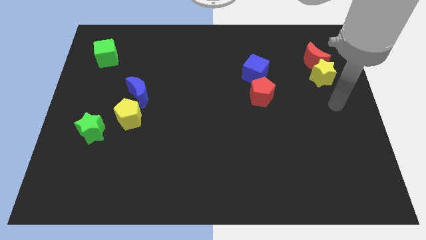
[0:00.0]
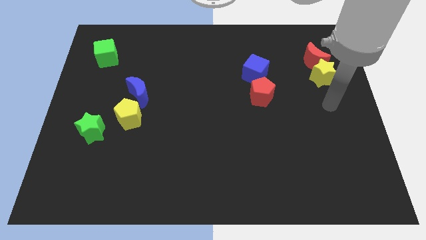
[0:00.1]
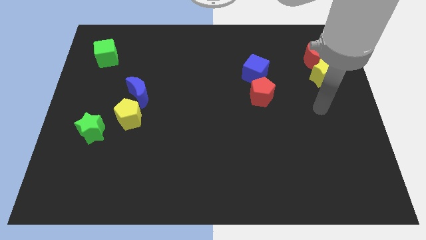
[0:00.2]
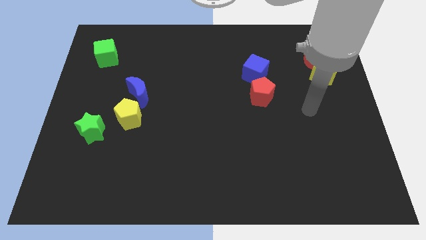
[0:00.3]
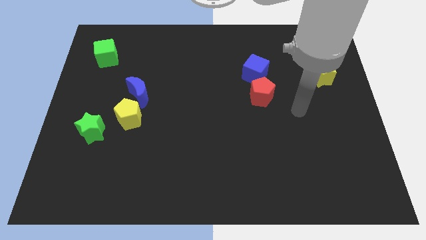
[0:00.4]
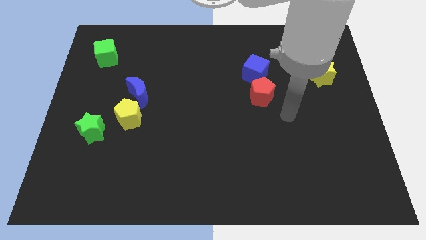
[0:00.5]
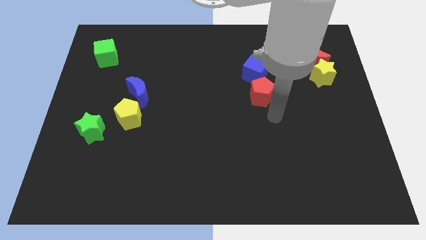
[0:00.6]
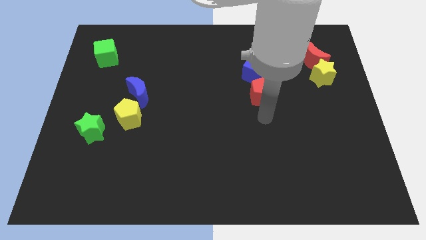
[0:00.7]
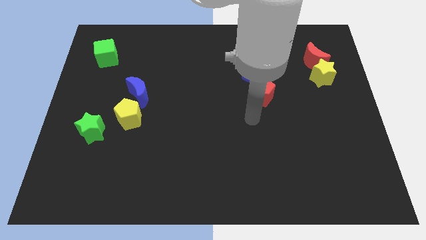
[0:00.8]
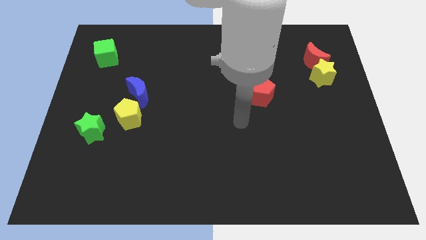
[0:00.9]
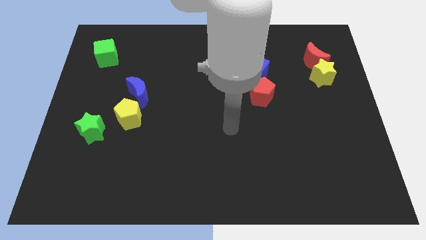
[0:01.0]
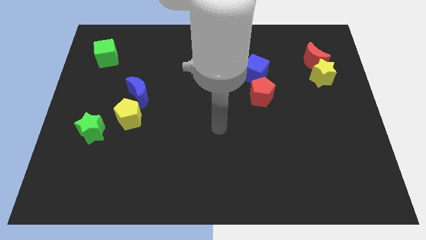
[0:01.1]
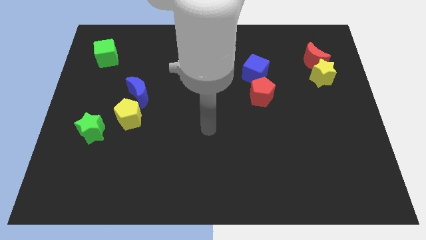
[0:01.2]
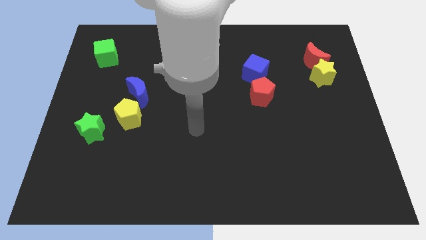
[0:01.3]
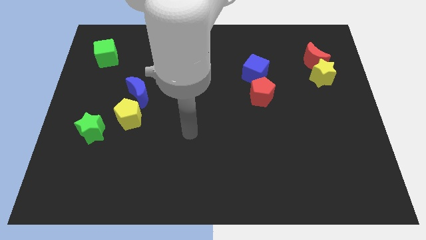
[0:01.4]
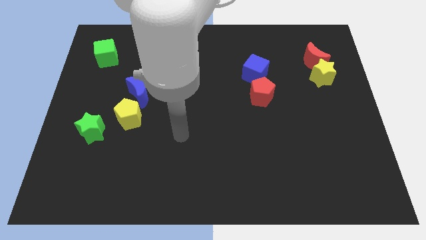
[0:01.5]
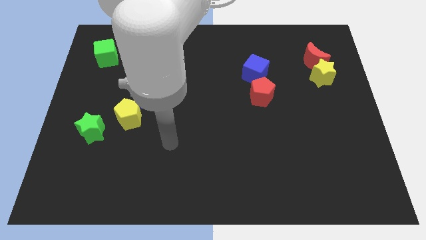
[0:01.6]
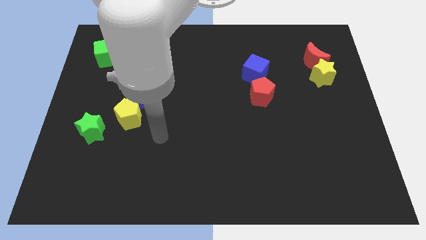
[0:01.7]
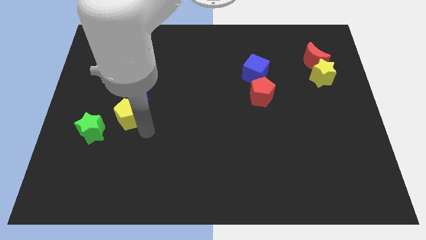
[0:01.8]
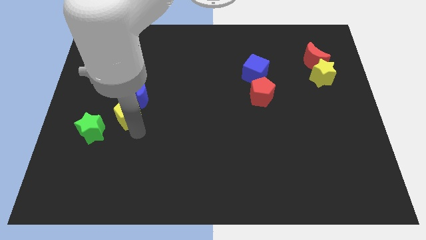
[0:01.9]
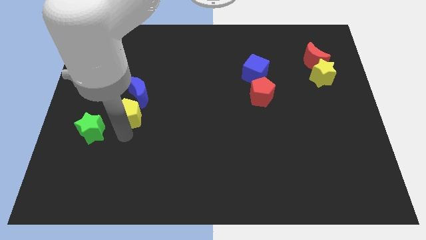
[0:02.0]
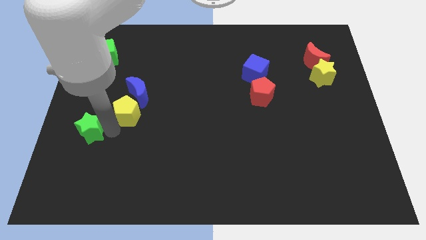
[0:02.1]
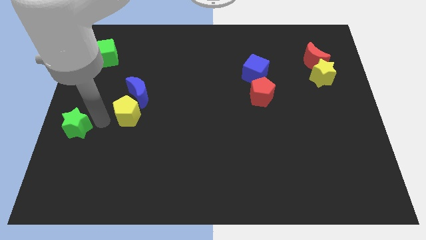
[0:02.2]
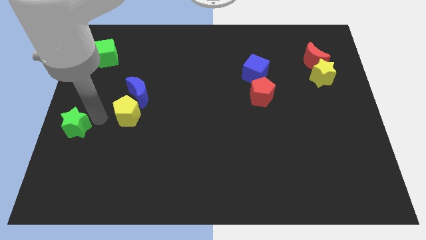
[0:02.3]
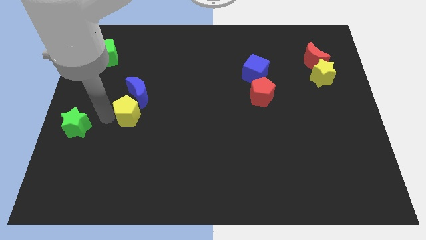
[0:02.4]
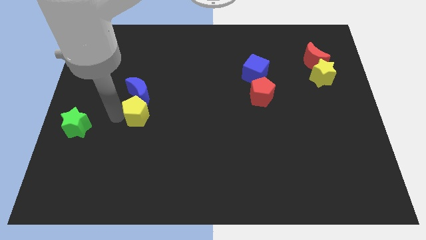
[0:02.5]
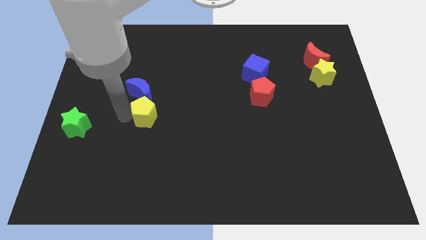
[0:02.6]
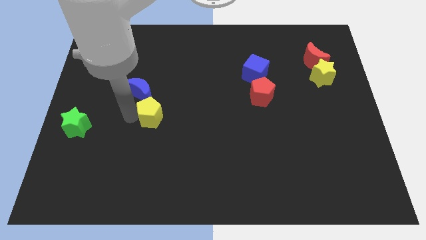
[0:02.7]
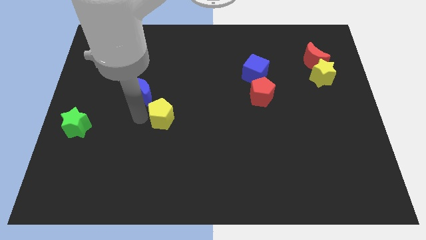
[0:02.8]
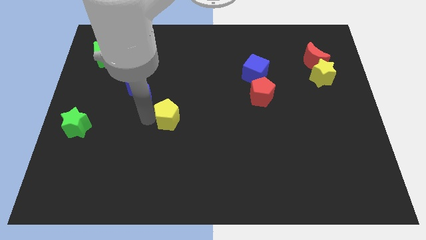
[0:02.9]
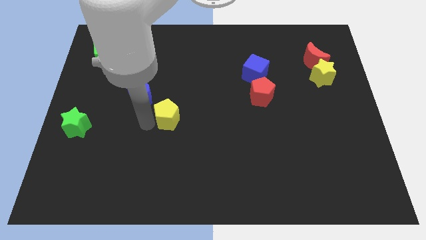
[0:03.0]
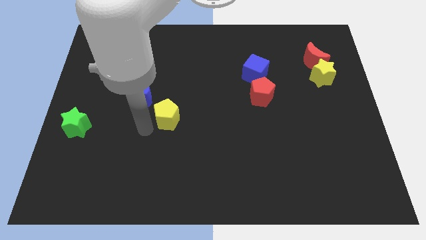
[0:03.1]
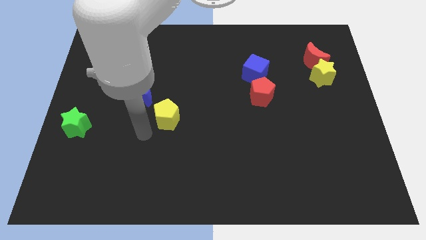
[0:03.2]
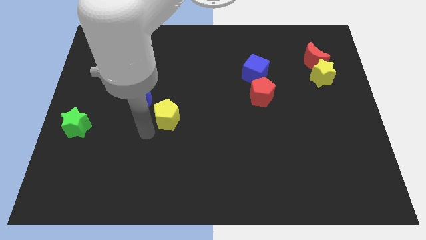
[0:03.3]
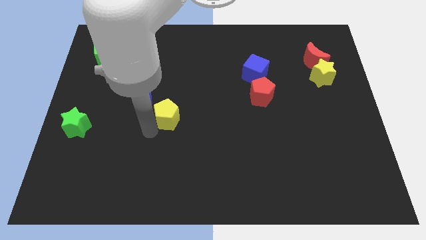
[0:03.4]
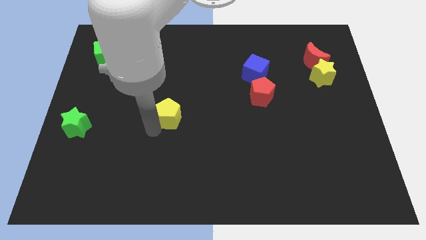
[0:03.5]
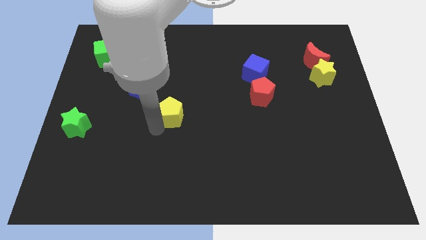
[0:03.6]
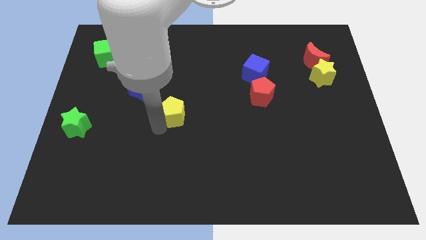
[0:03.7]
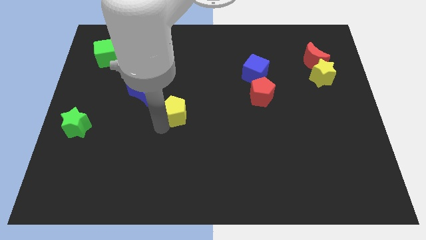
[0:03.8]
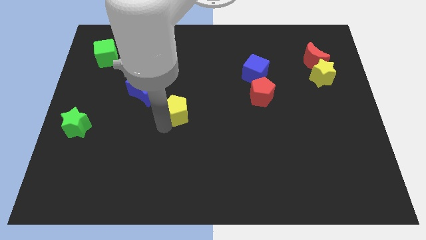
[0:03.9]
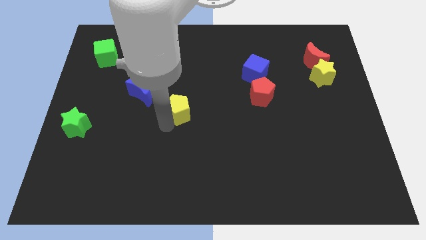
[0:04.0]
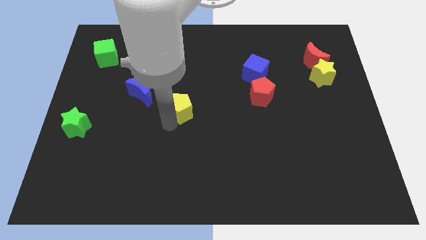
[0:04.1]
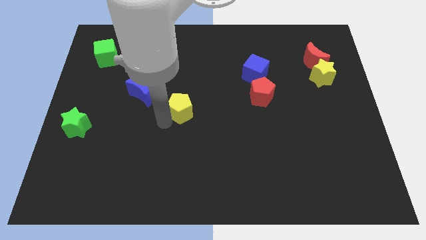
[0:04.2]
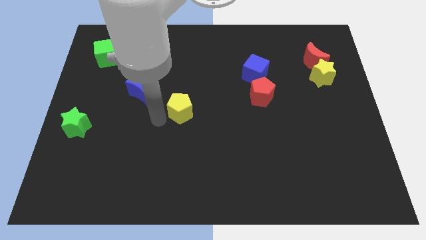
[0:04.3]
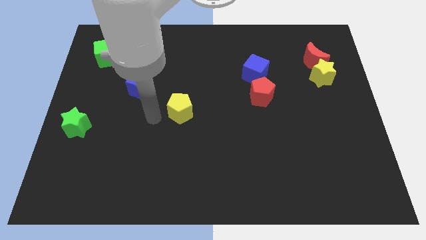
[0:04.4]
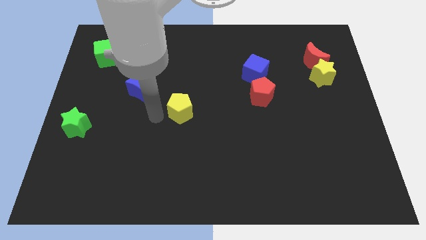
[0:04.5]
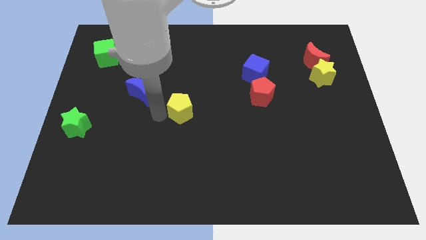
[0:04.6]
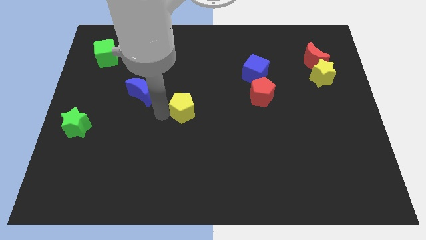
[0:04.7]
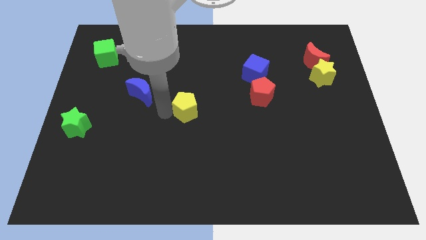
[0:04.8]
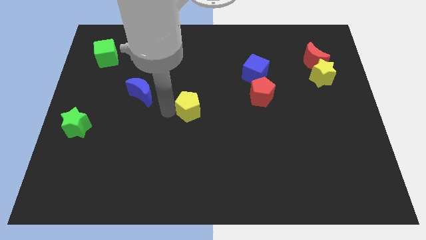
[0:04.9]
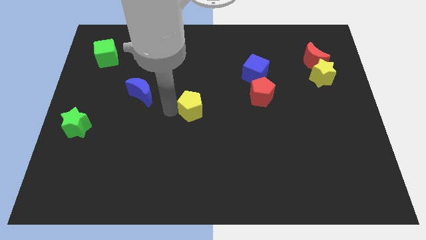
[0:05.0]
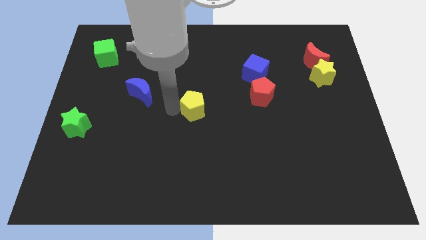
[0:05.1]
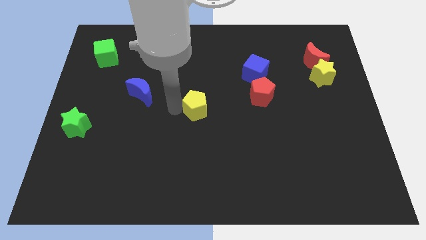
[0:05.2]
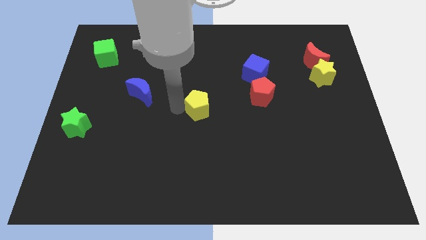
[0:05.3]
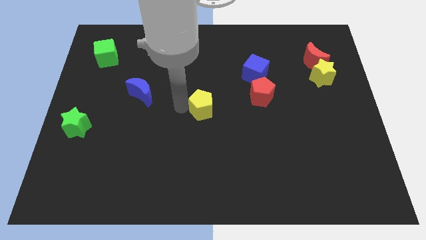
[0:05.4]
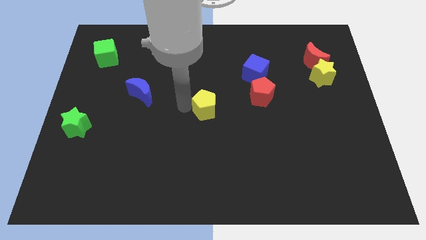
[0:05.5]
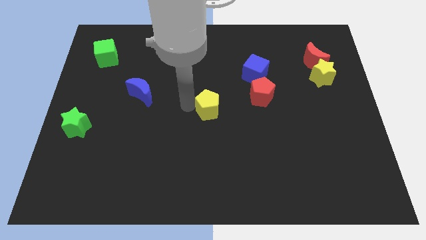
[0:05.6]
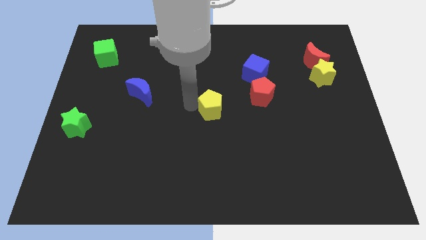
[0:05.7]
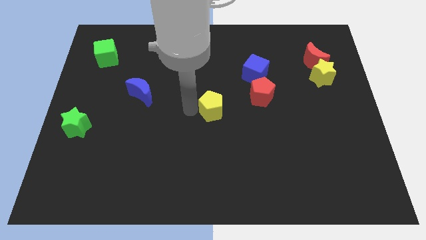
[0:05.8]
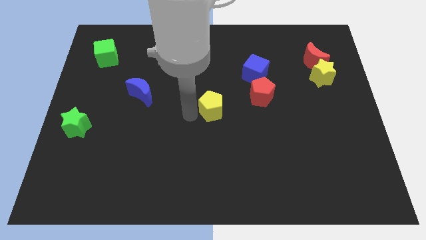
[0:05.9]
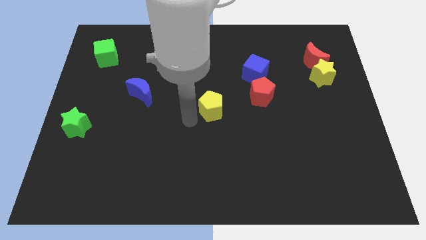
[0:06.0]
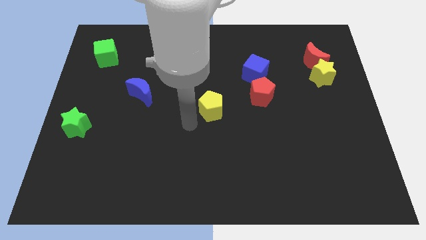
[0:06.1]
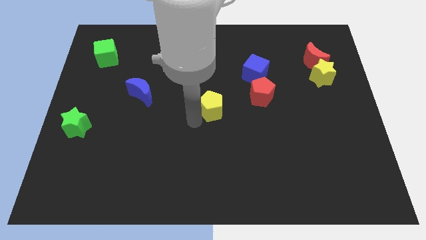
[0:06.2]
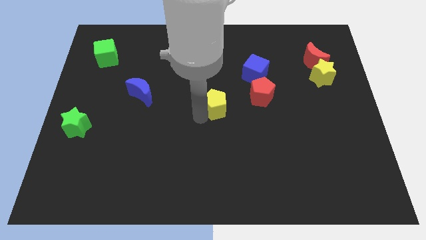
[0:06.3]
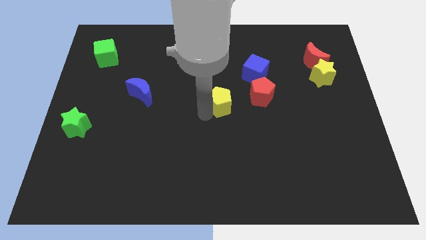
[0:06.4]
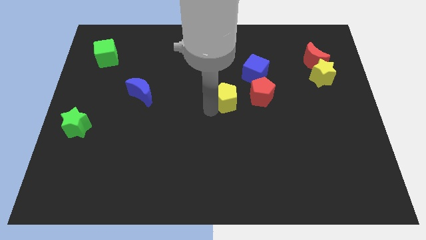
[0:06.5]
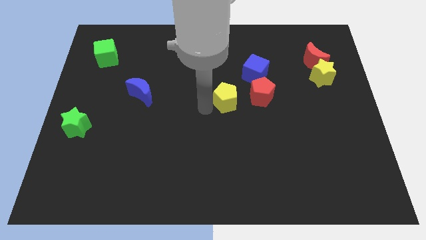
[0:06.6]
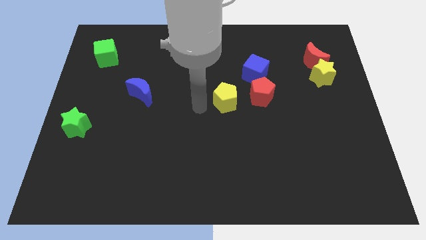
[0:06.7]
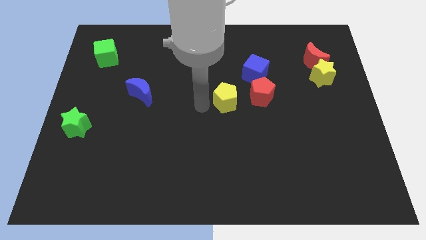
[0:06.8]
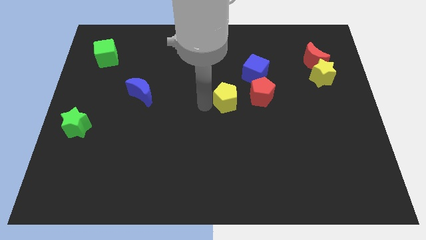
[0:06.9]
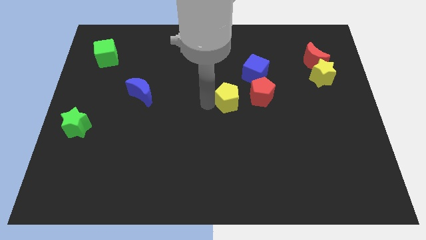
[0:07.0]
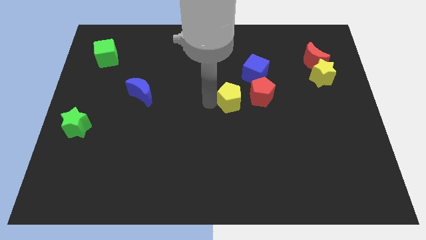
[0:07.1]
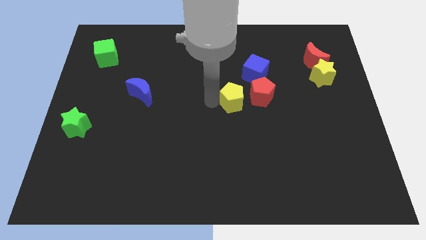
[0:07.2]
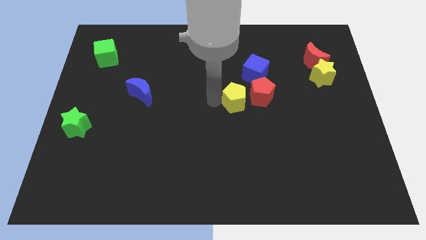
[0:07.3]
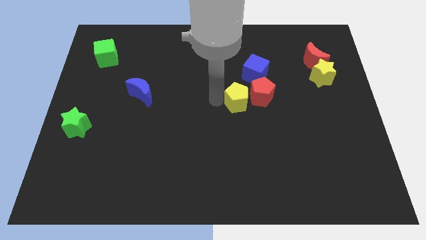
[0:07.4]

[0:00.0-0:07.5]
slide the yellow pentagon close to the red pentagon

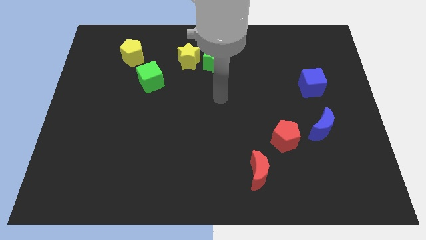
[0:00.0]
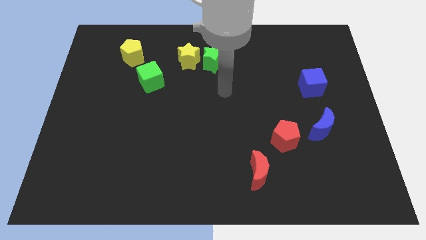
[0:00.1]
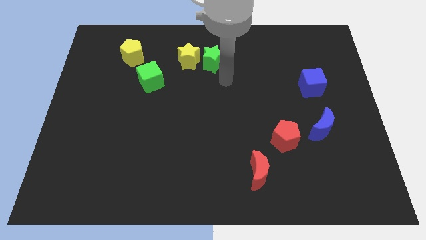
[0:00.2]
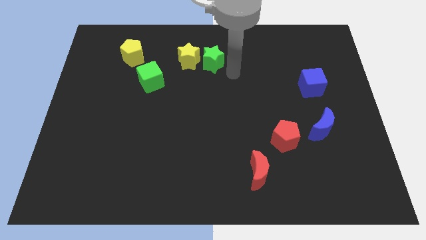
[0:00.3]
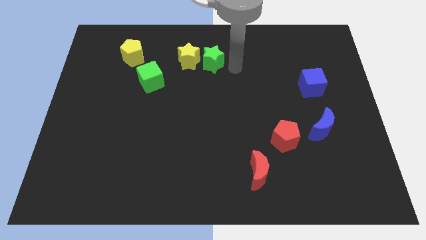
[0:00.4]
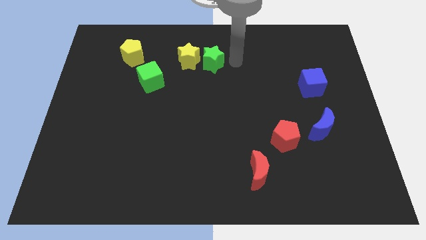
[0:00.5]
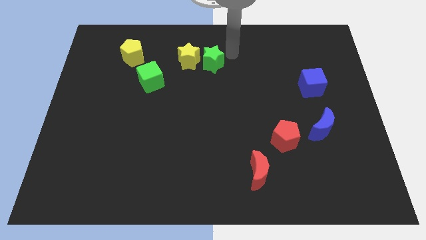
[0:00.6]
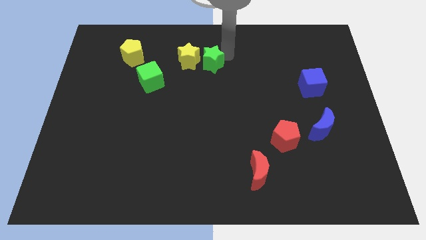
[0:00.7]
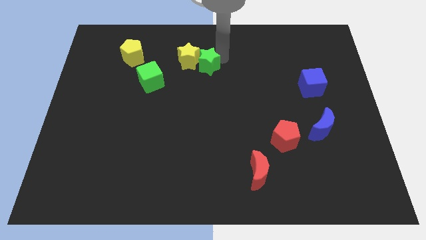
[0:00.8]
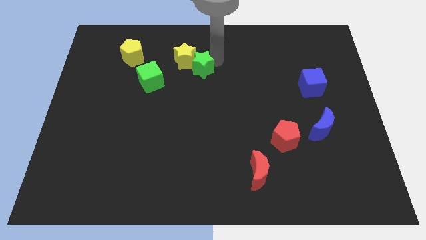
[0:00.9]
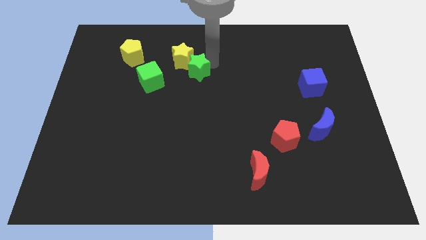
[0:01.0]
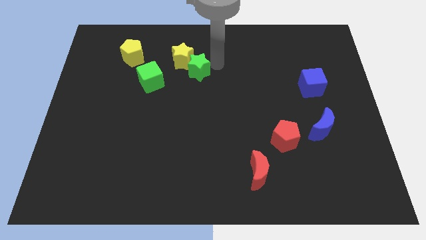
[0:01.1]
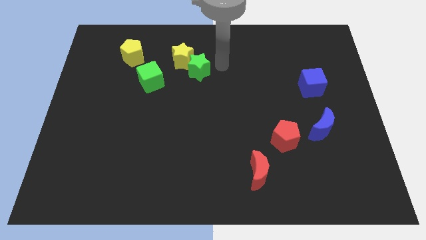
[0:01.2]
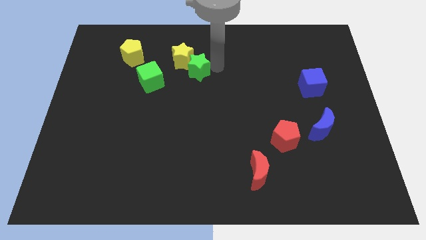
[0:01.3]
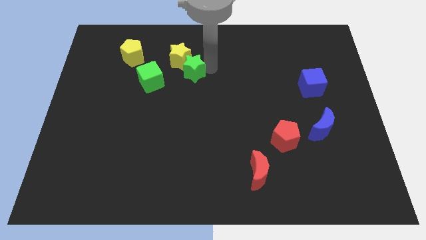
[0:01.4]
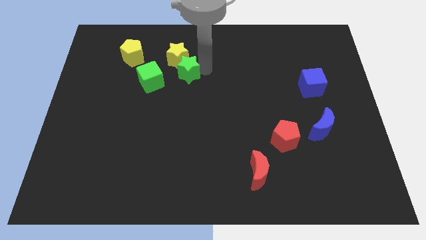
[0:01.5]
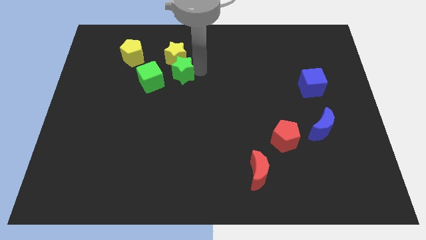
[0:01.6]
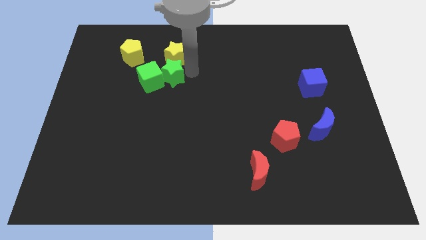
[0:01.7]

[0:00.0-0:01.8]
push the green star towards the green cube
